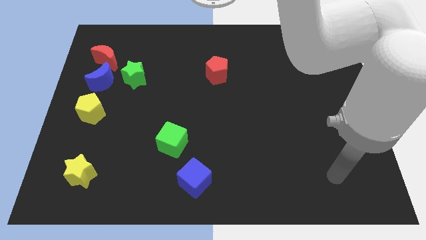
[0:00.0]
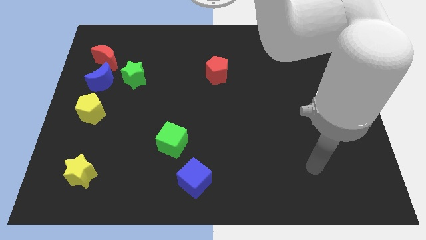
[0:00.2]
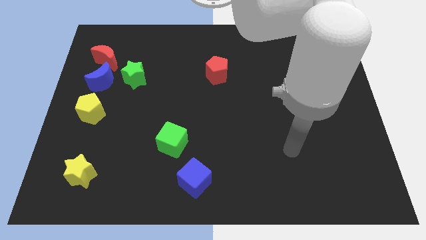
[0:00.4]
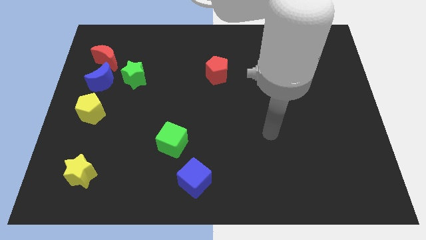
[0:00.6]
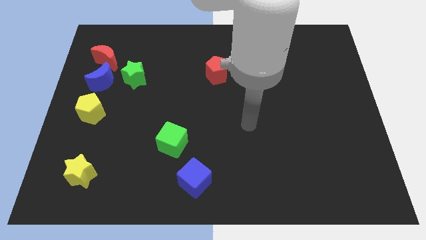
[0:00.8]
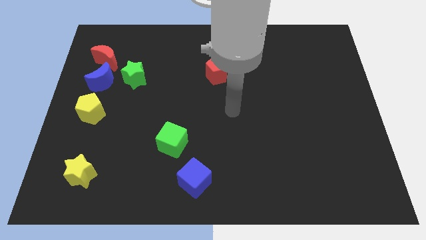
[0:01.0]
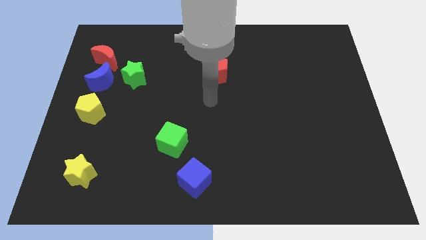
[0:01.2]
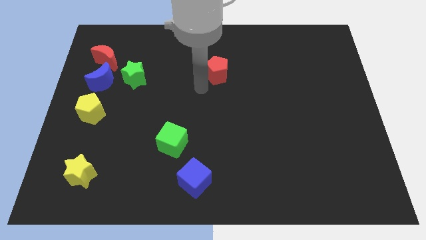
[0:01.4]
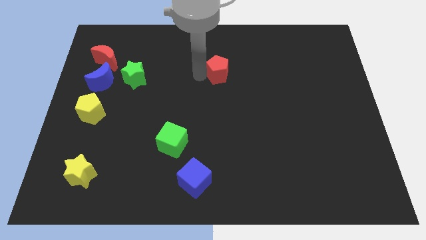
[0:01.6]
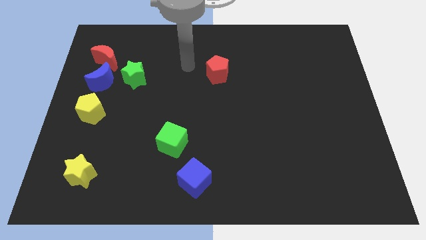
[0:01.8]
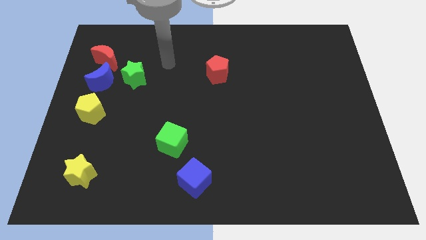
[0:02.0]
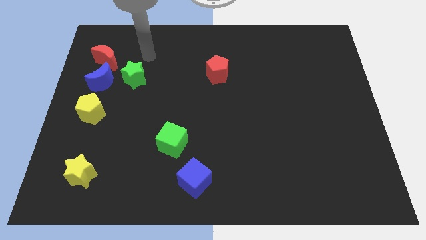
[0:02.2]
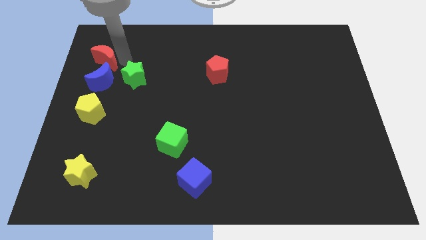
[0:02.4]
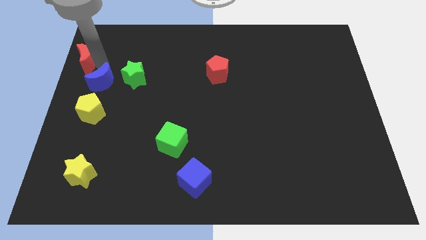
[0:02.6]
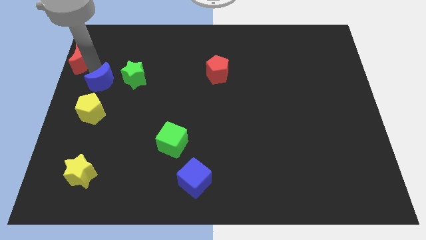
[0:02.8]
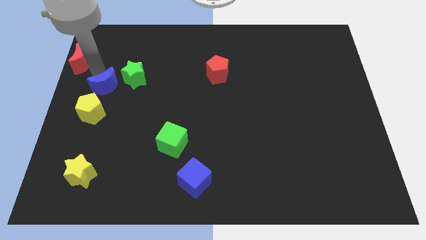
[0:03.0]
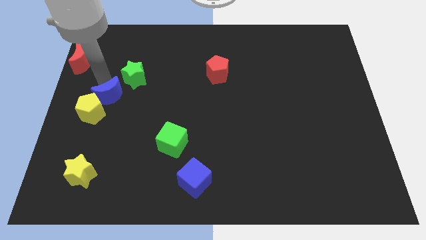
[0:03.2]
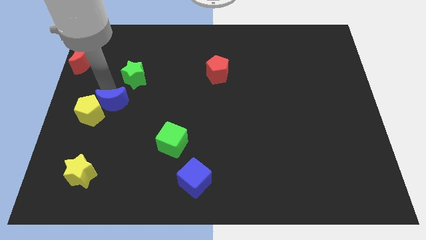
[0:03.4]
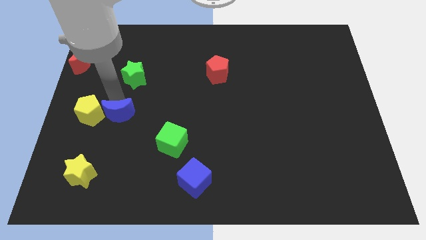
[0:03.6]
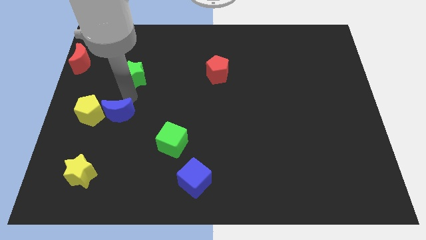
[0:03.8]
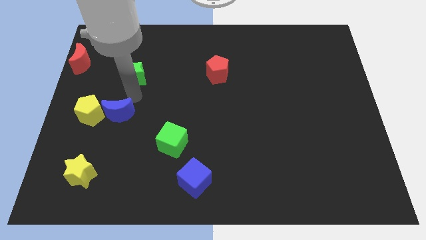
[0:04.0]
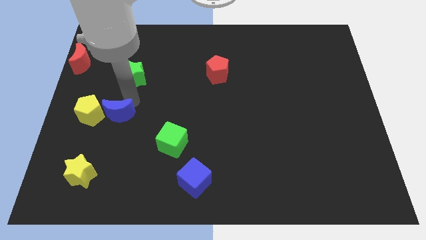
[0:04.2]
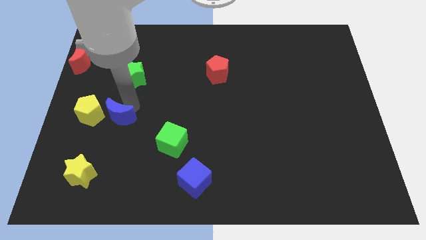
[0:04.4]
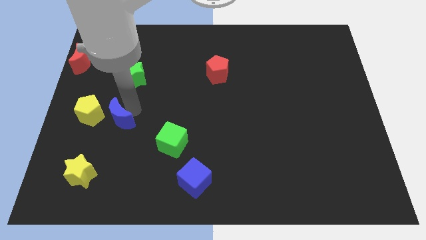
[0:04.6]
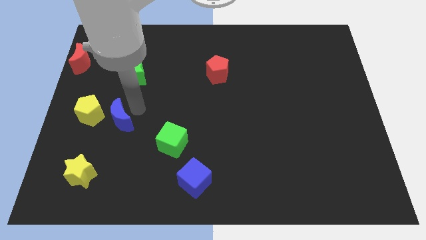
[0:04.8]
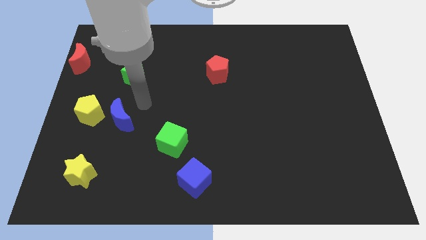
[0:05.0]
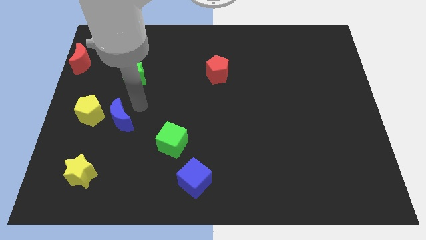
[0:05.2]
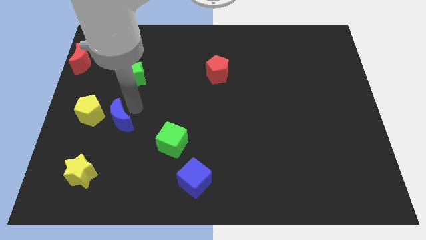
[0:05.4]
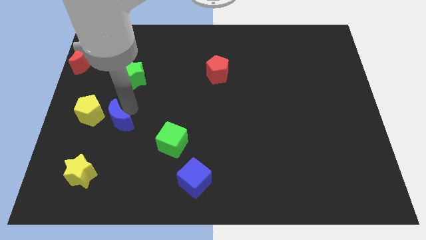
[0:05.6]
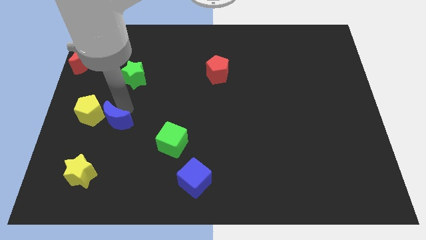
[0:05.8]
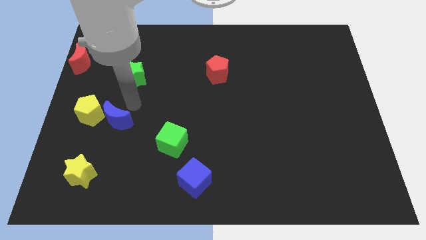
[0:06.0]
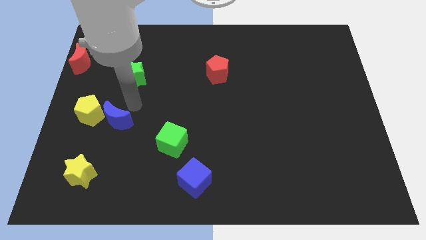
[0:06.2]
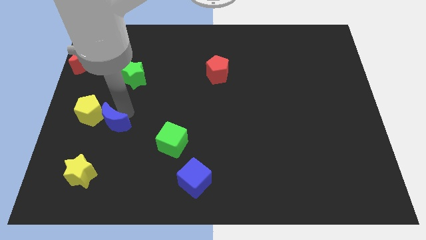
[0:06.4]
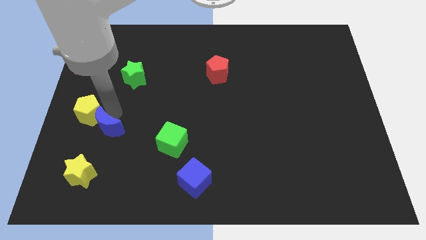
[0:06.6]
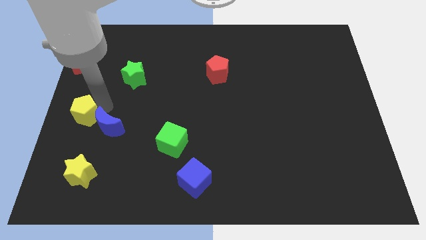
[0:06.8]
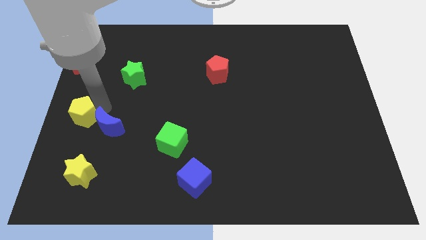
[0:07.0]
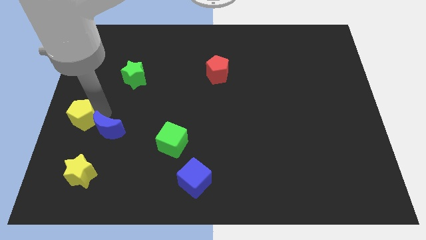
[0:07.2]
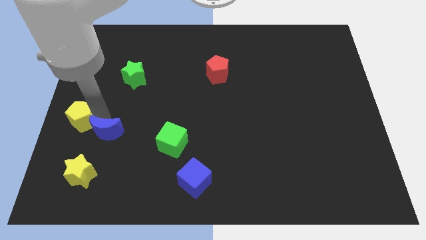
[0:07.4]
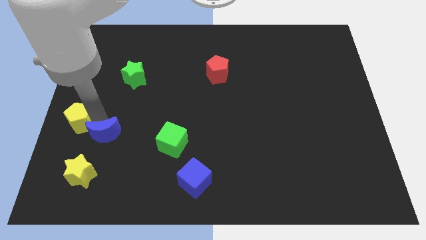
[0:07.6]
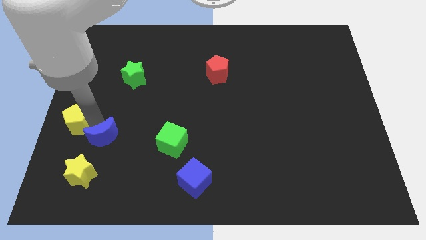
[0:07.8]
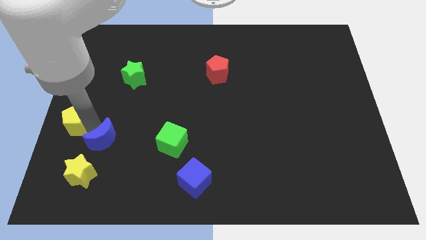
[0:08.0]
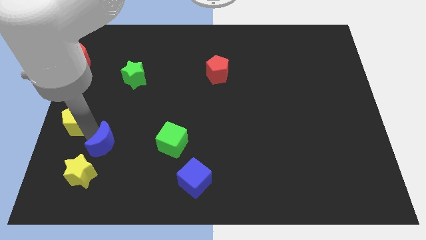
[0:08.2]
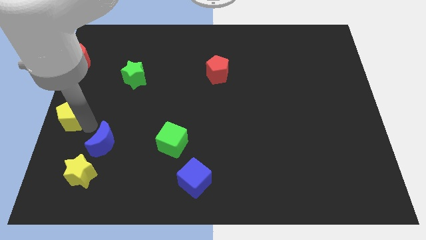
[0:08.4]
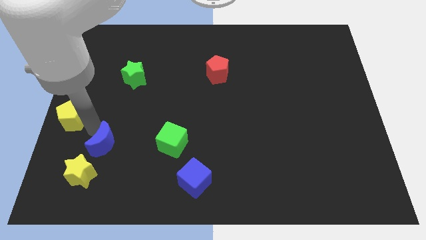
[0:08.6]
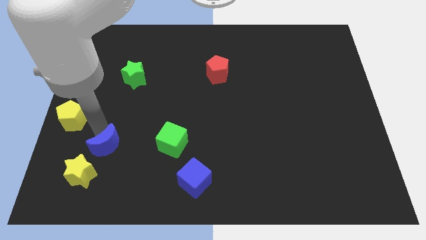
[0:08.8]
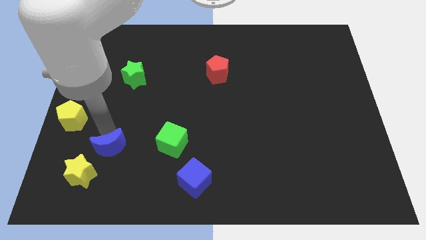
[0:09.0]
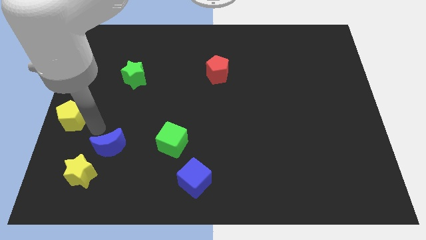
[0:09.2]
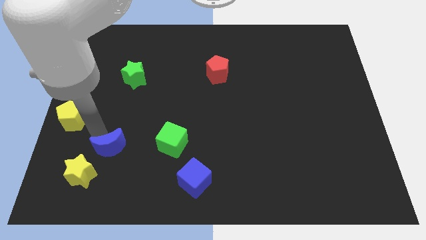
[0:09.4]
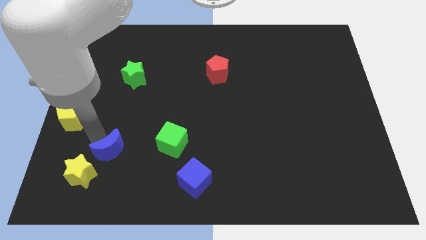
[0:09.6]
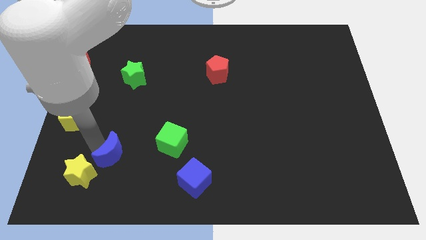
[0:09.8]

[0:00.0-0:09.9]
push the blue moon right of the yellow star

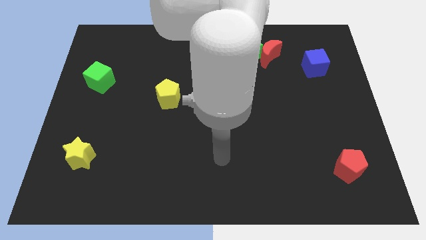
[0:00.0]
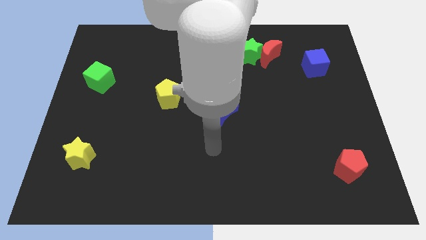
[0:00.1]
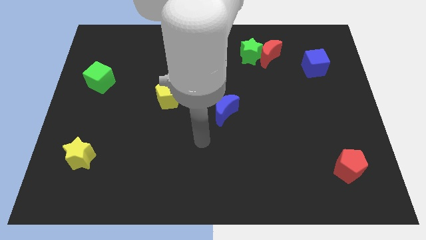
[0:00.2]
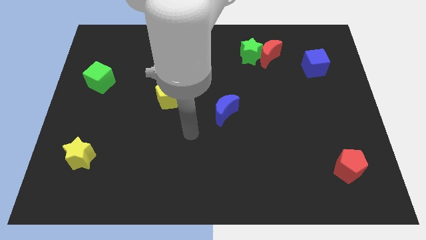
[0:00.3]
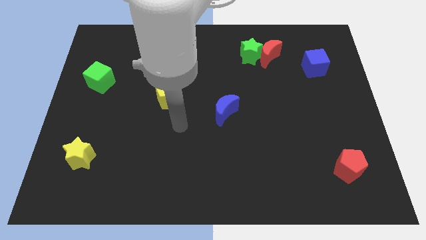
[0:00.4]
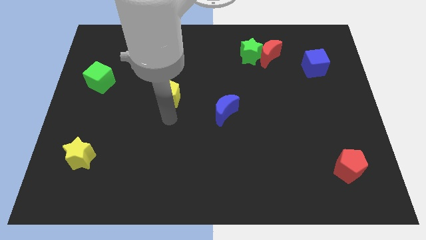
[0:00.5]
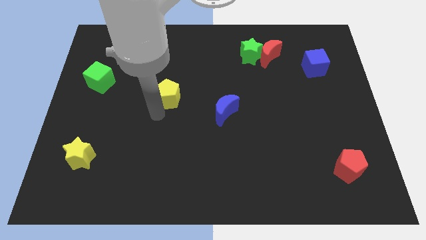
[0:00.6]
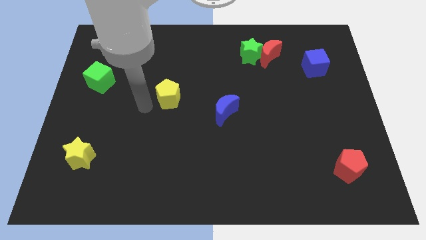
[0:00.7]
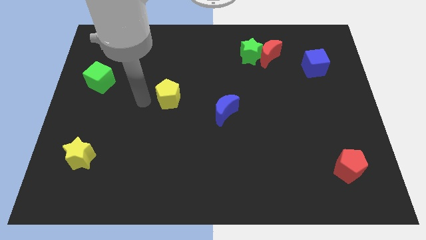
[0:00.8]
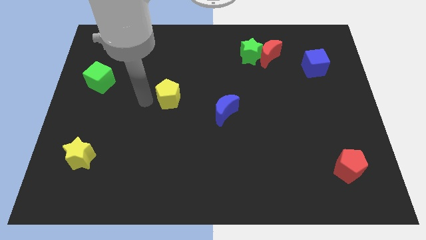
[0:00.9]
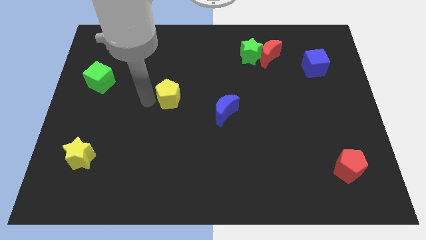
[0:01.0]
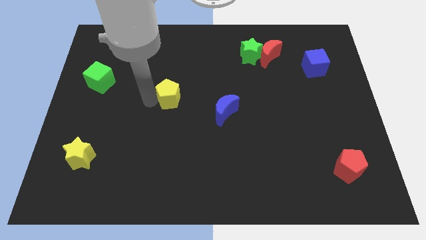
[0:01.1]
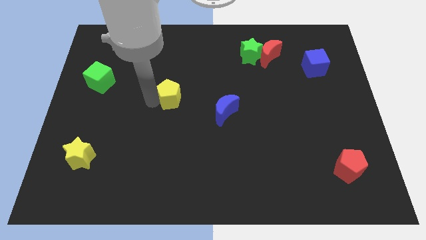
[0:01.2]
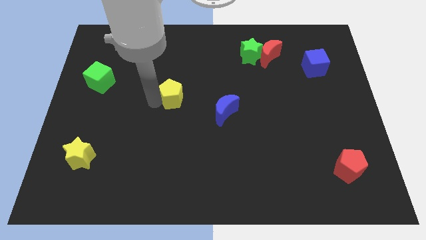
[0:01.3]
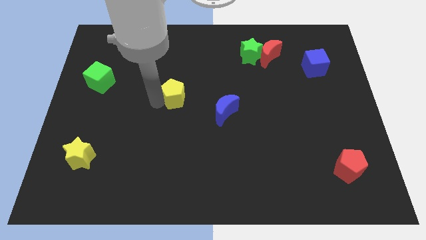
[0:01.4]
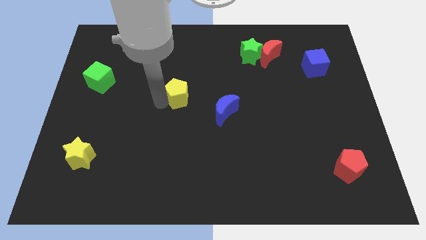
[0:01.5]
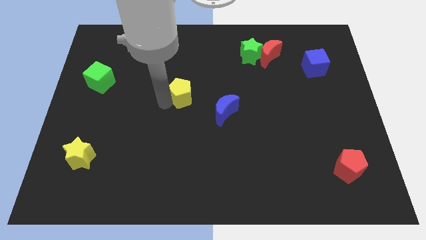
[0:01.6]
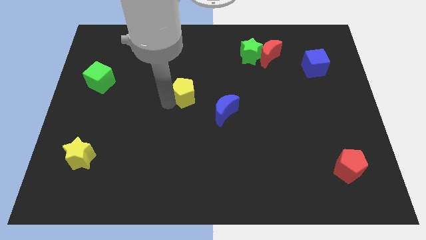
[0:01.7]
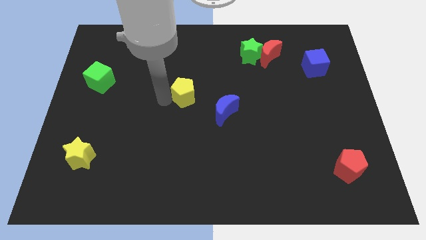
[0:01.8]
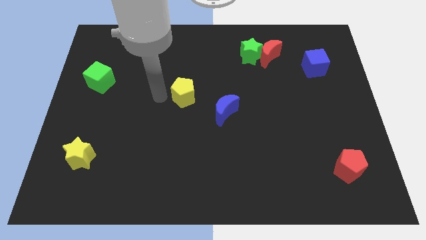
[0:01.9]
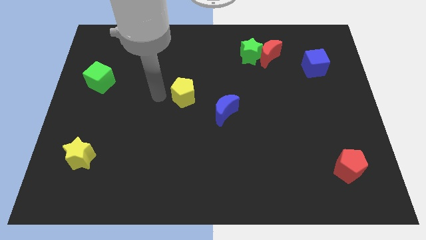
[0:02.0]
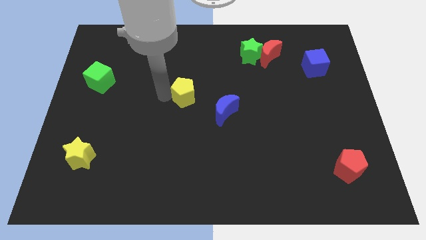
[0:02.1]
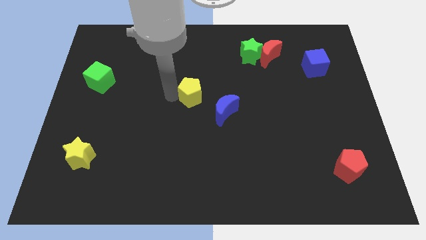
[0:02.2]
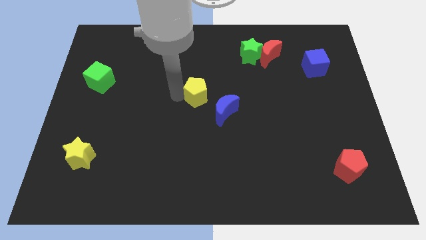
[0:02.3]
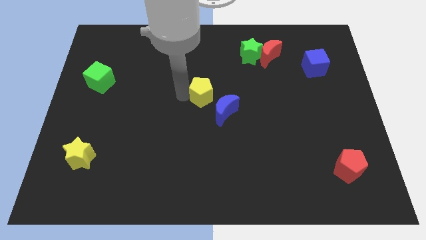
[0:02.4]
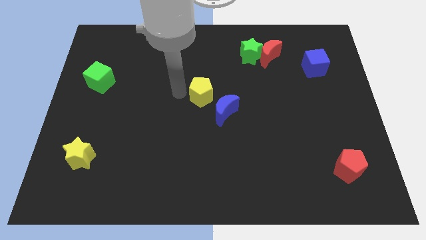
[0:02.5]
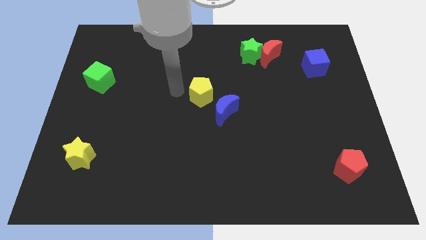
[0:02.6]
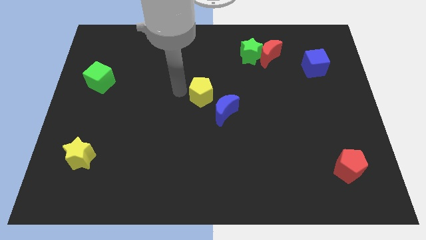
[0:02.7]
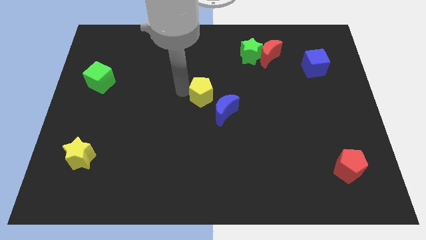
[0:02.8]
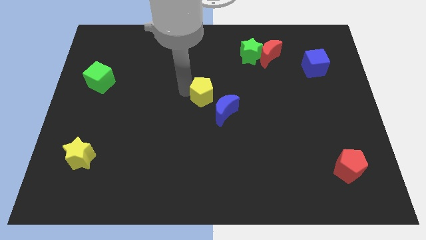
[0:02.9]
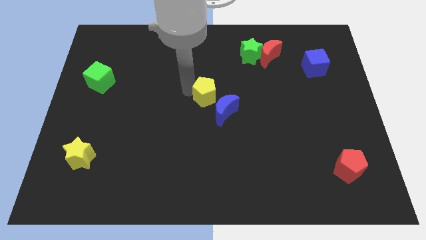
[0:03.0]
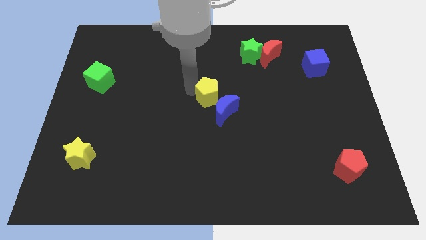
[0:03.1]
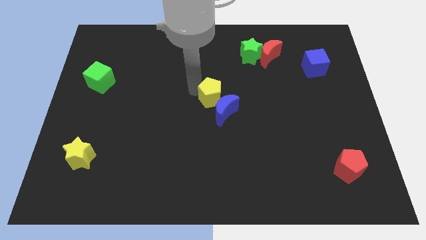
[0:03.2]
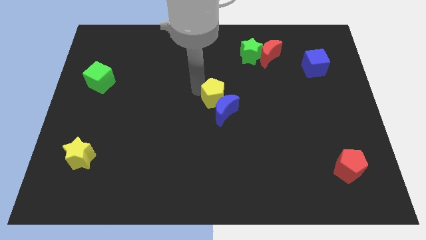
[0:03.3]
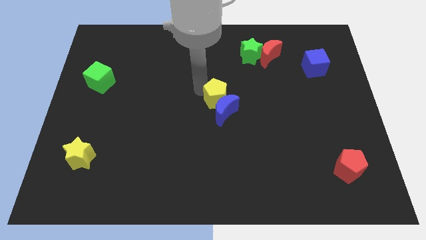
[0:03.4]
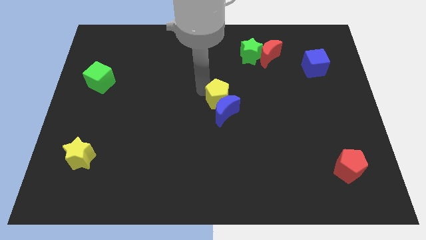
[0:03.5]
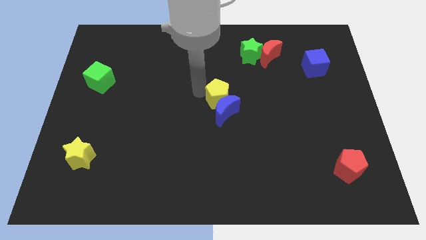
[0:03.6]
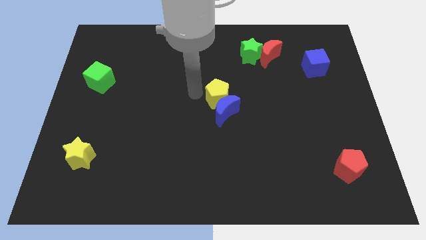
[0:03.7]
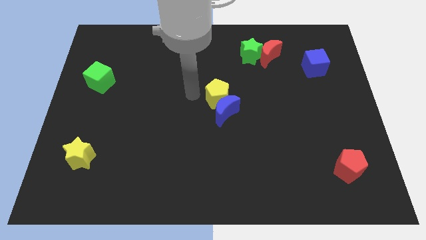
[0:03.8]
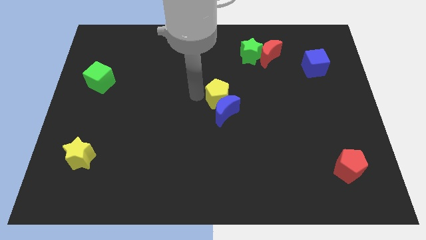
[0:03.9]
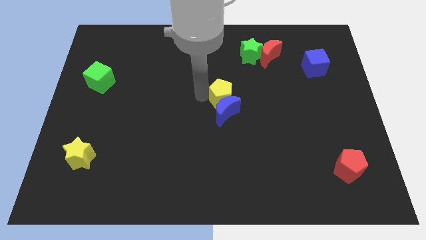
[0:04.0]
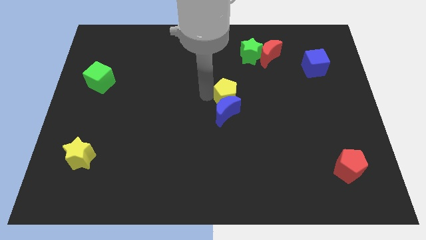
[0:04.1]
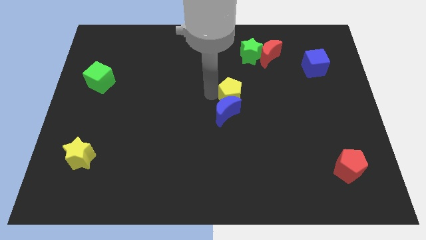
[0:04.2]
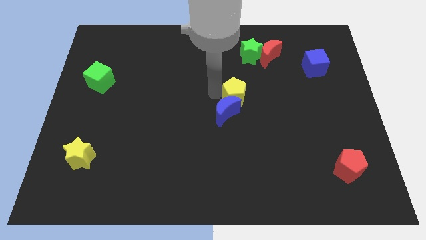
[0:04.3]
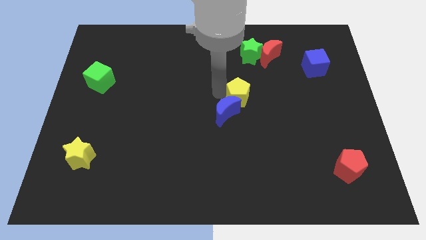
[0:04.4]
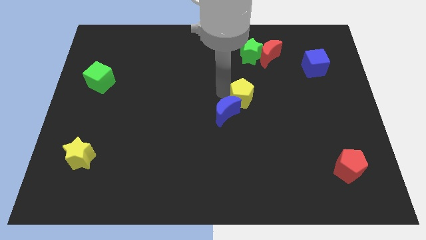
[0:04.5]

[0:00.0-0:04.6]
push the yellow pentagon to the right of the blue moon
